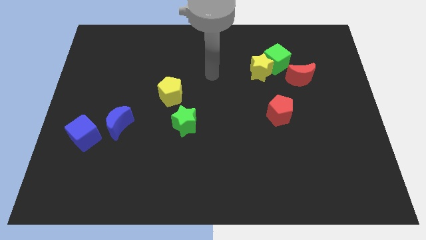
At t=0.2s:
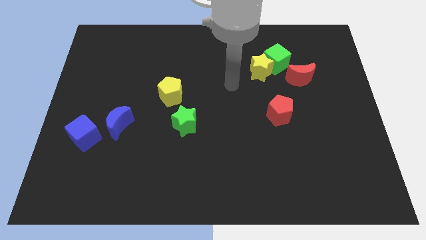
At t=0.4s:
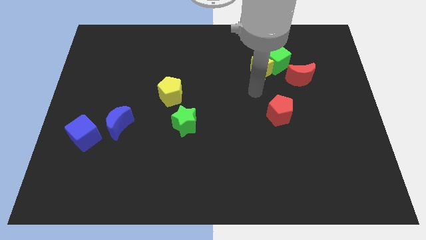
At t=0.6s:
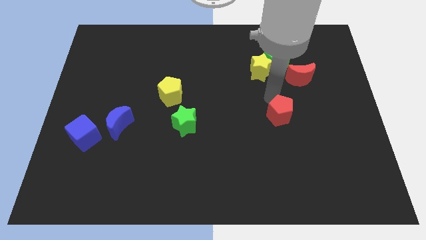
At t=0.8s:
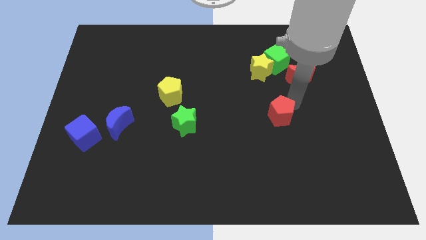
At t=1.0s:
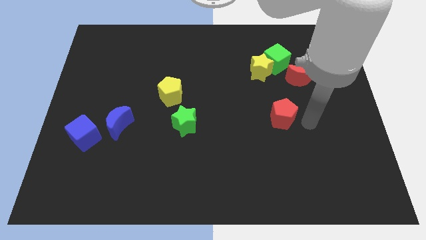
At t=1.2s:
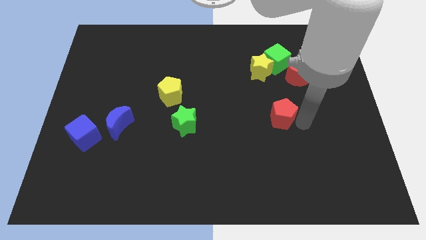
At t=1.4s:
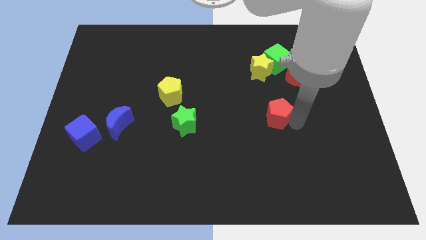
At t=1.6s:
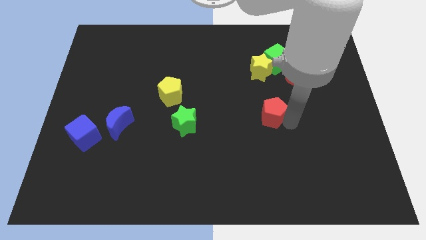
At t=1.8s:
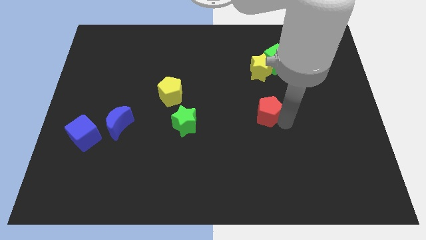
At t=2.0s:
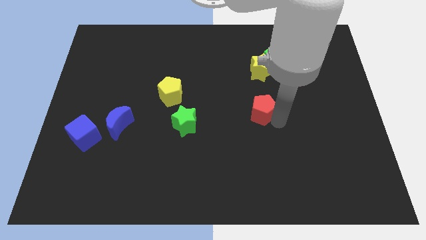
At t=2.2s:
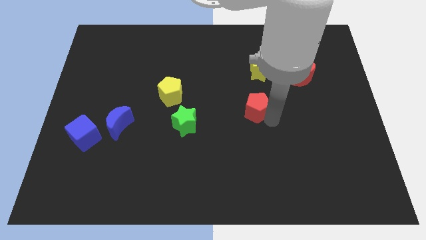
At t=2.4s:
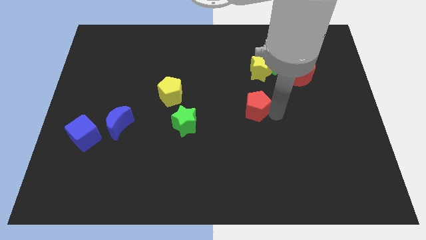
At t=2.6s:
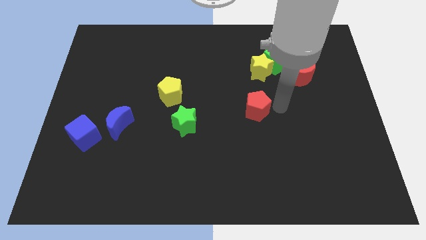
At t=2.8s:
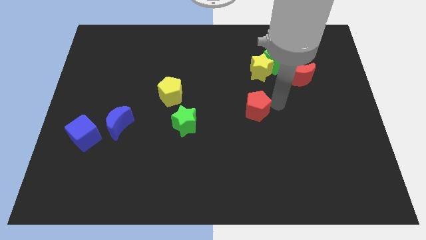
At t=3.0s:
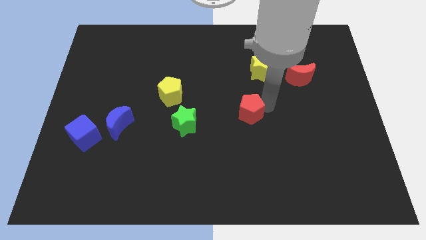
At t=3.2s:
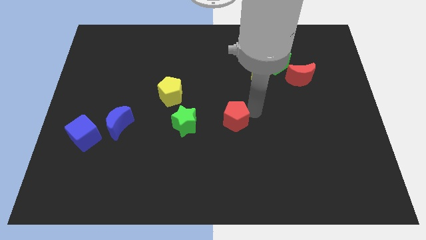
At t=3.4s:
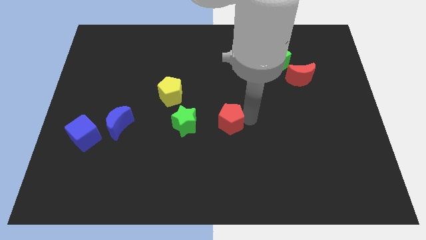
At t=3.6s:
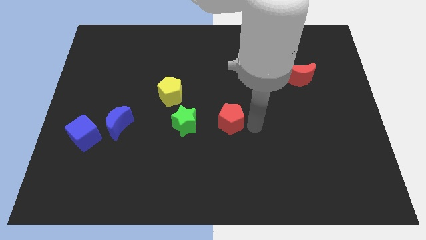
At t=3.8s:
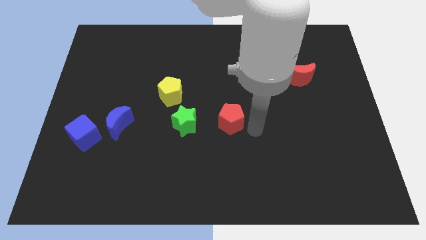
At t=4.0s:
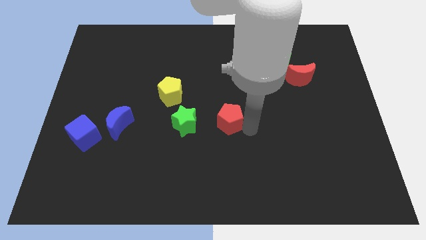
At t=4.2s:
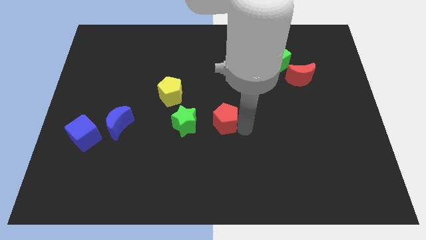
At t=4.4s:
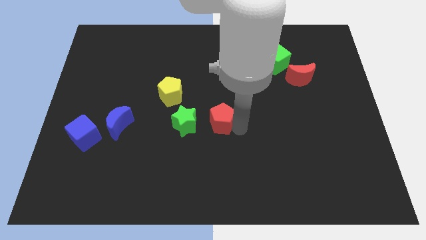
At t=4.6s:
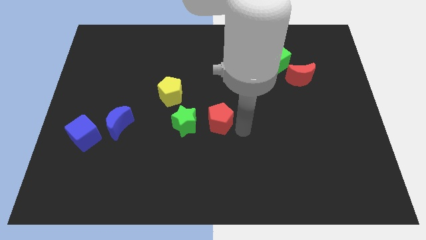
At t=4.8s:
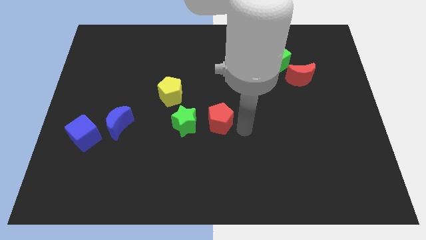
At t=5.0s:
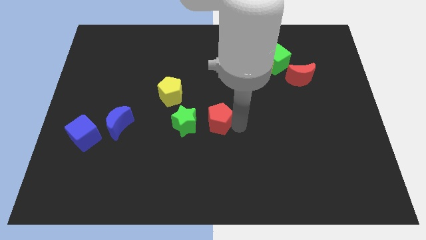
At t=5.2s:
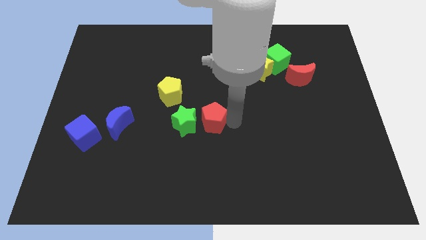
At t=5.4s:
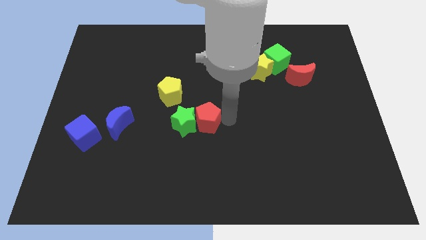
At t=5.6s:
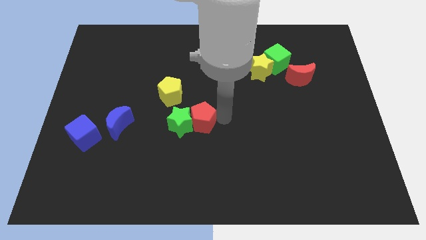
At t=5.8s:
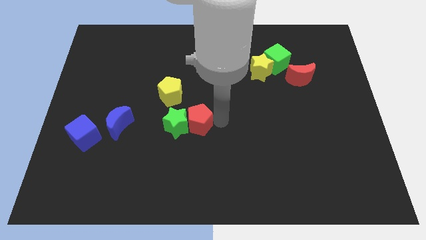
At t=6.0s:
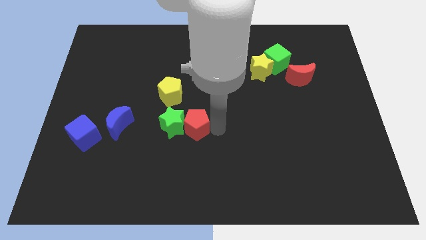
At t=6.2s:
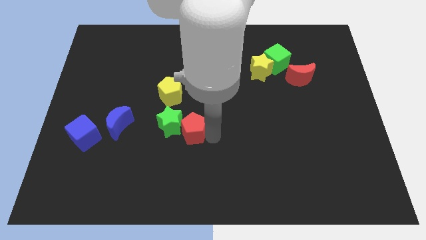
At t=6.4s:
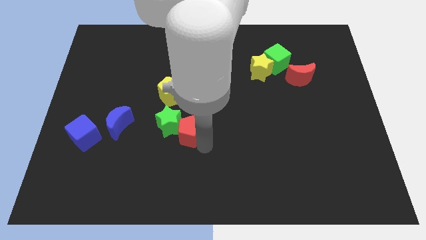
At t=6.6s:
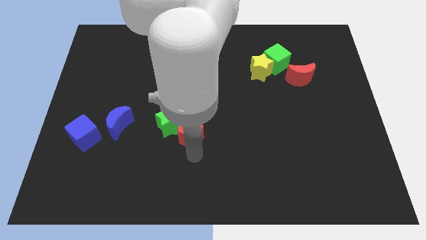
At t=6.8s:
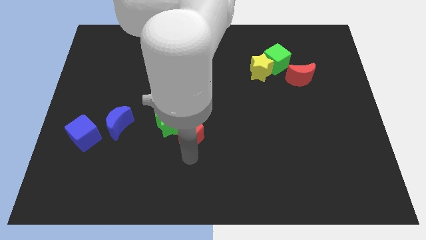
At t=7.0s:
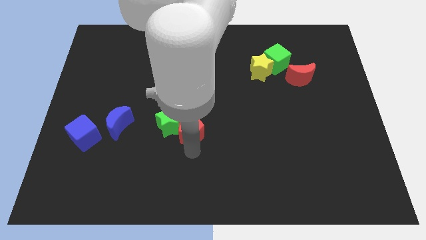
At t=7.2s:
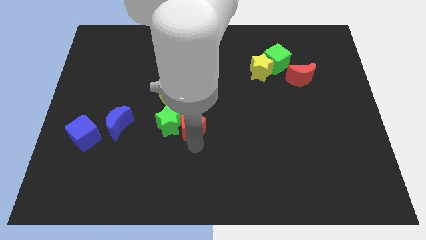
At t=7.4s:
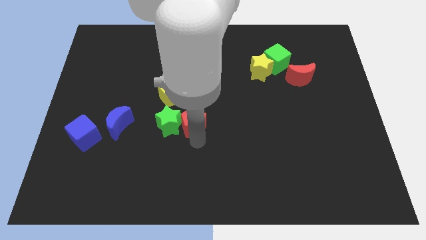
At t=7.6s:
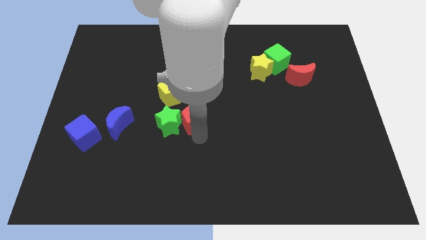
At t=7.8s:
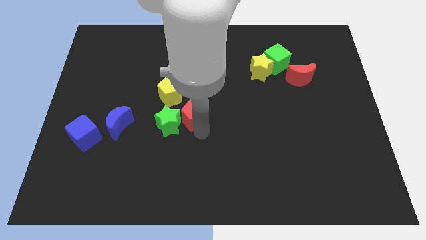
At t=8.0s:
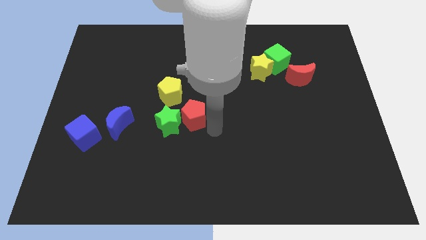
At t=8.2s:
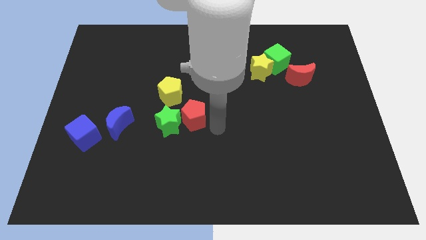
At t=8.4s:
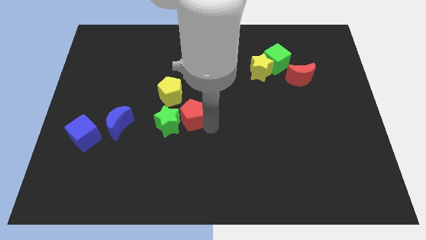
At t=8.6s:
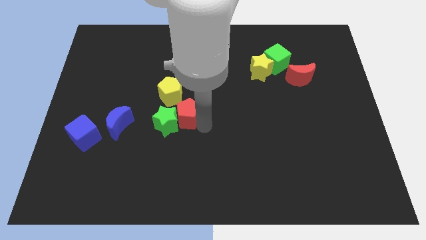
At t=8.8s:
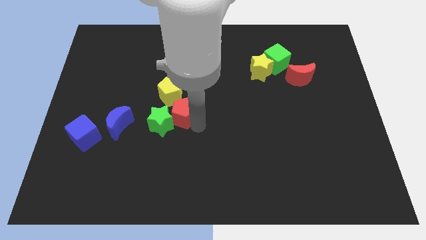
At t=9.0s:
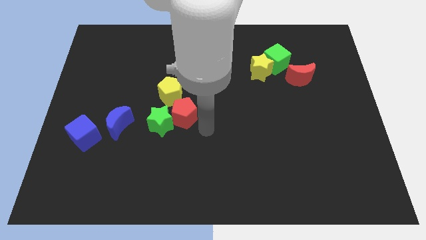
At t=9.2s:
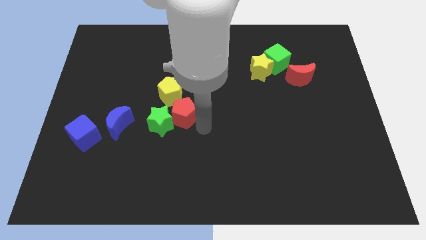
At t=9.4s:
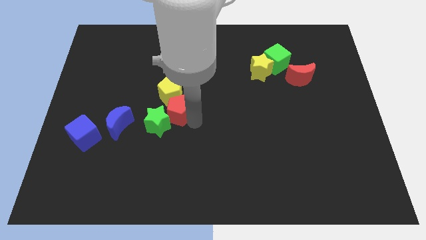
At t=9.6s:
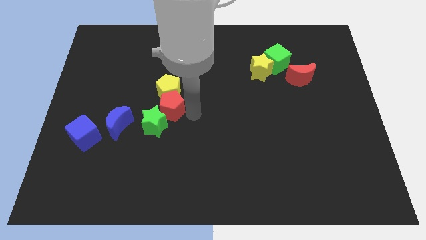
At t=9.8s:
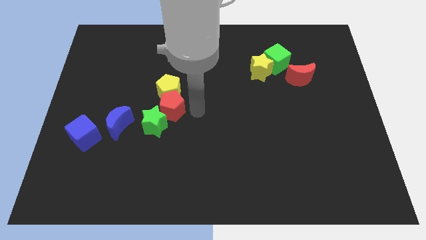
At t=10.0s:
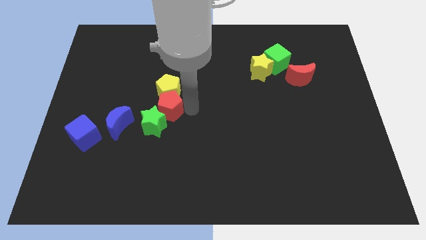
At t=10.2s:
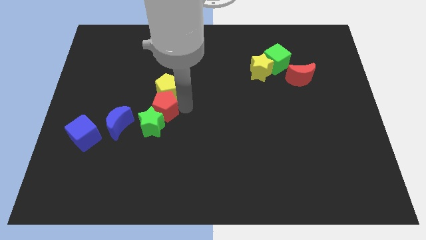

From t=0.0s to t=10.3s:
slide the red pentagon to the top right side of the blue moon

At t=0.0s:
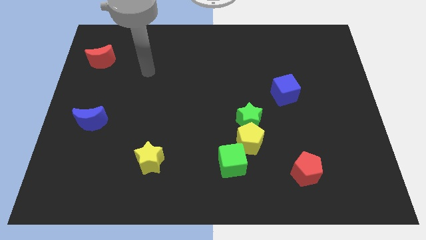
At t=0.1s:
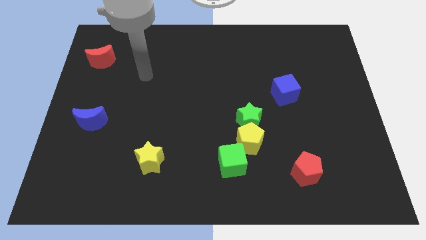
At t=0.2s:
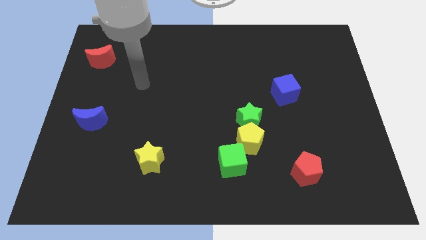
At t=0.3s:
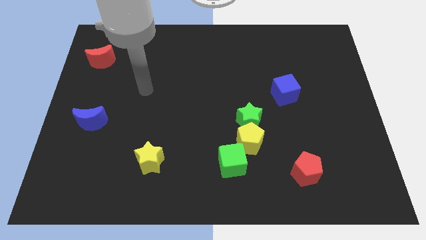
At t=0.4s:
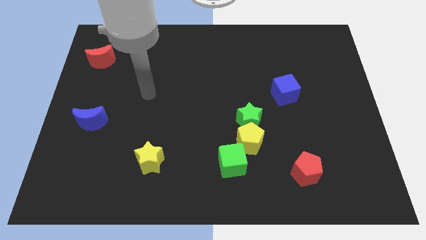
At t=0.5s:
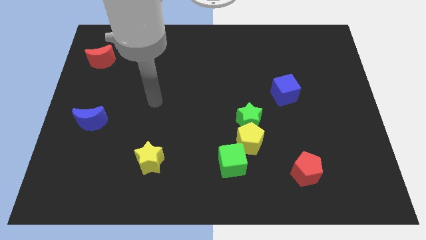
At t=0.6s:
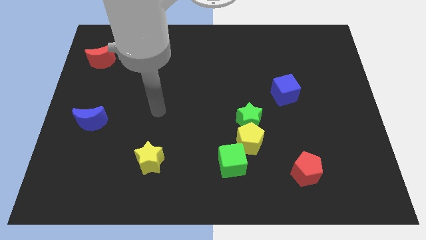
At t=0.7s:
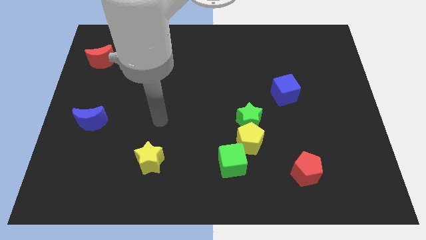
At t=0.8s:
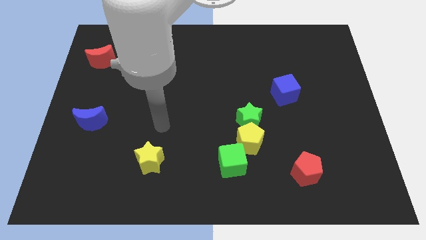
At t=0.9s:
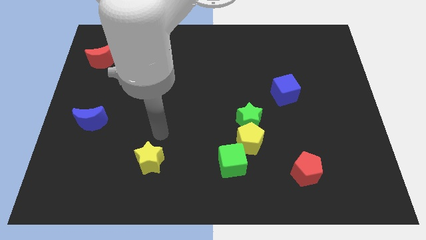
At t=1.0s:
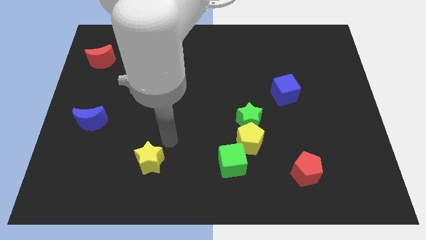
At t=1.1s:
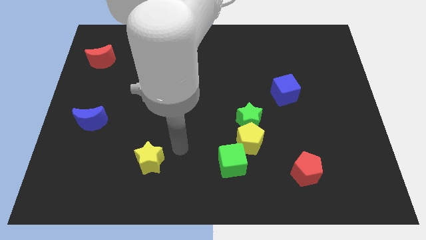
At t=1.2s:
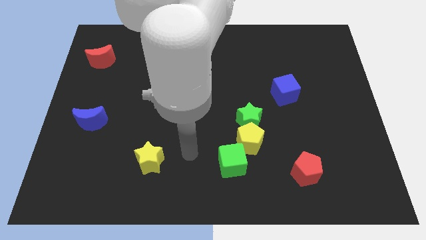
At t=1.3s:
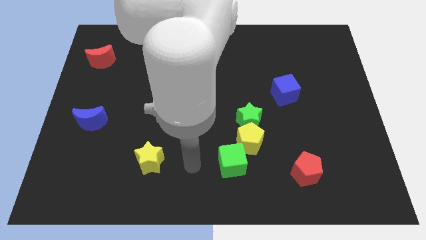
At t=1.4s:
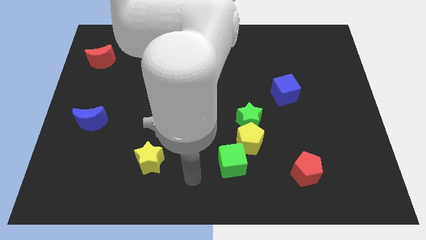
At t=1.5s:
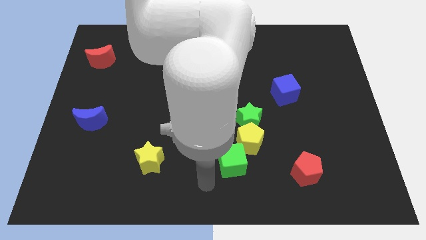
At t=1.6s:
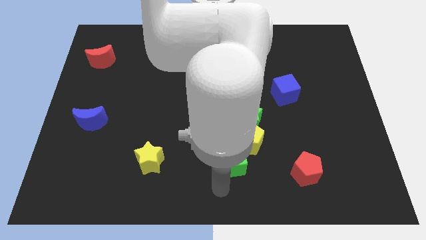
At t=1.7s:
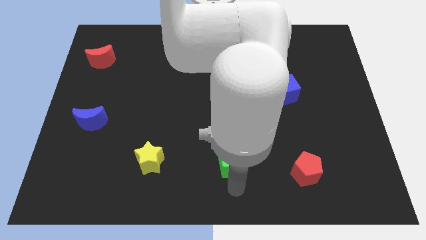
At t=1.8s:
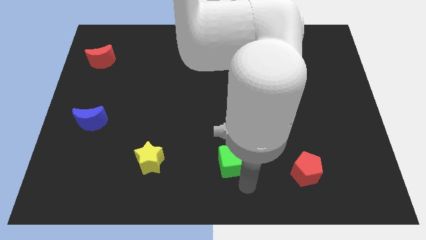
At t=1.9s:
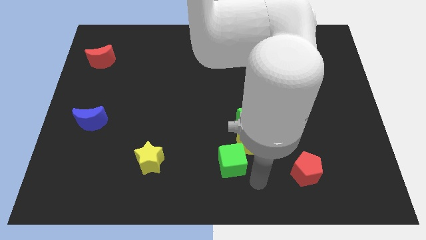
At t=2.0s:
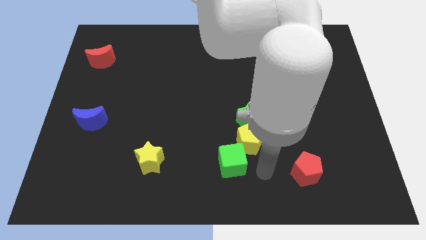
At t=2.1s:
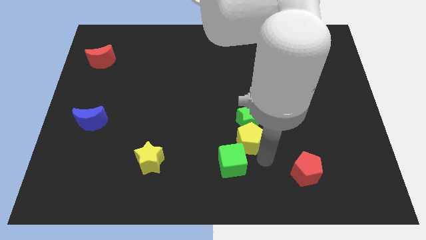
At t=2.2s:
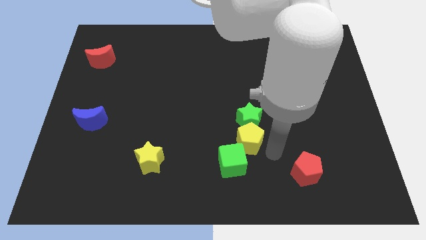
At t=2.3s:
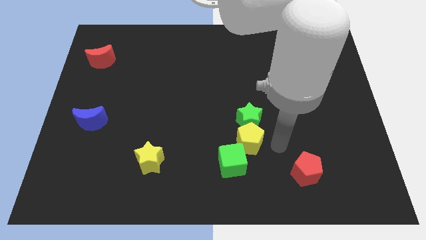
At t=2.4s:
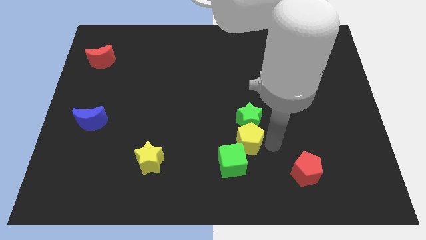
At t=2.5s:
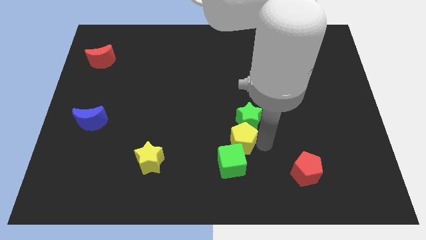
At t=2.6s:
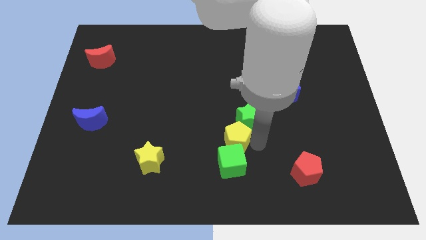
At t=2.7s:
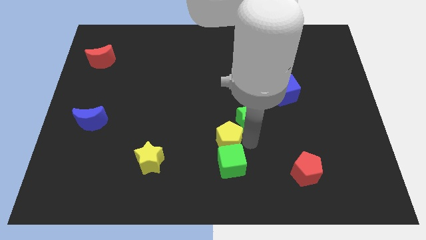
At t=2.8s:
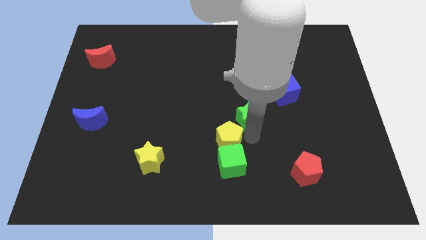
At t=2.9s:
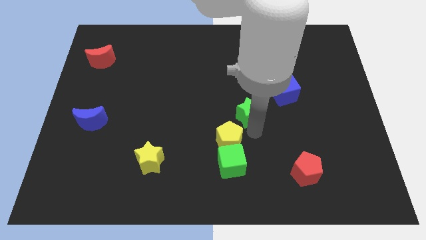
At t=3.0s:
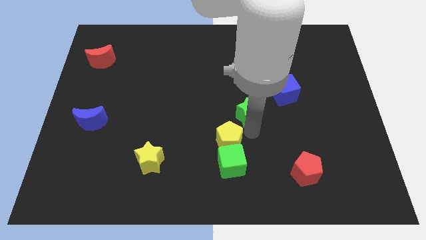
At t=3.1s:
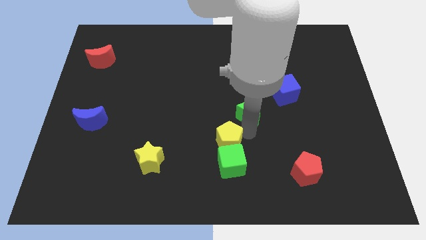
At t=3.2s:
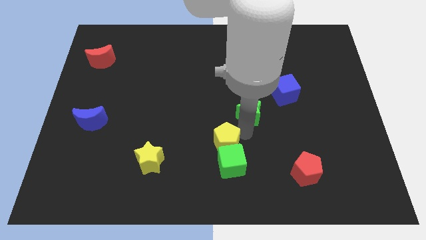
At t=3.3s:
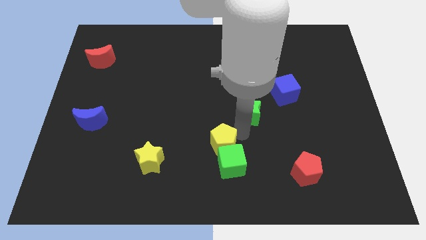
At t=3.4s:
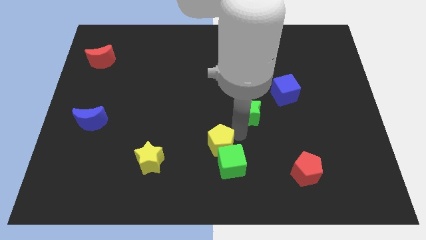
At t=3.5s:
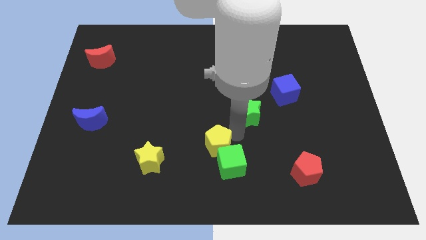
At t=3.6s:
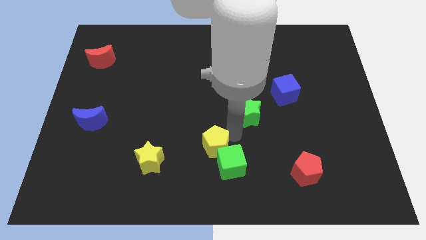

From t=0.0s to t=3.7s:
slide the yellow pentagon left of the green cube
